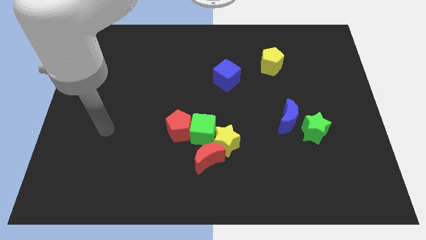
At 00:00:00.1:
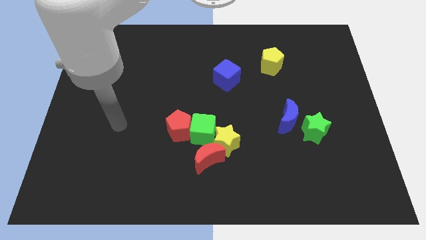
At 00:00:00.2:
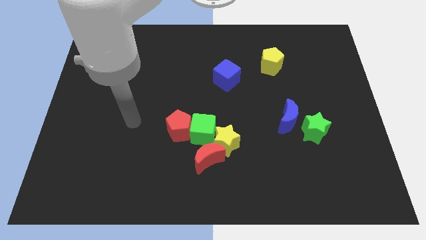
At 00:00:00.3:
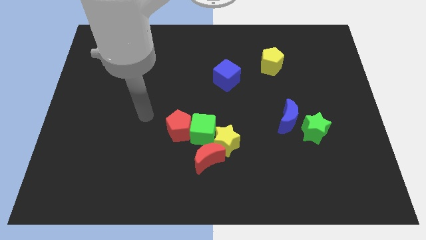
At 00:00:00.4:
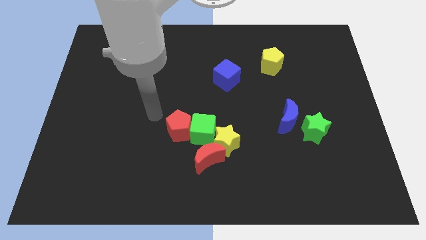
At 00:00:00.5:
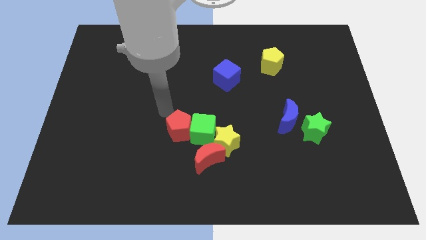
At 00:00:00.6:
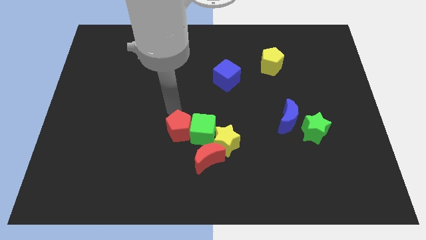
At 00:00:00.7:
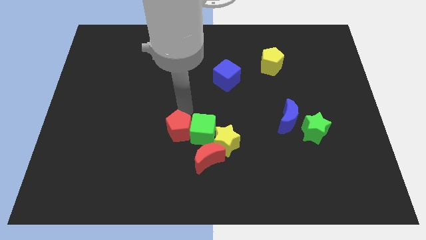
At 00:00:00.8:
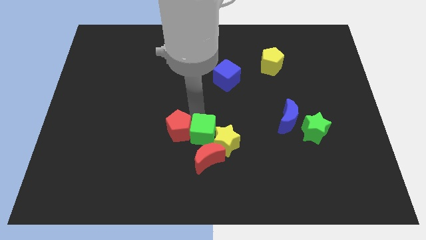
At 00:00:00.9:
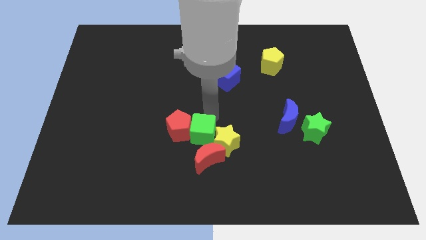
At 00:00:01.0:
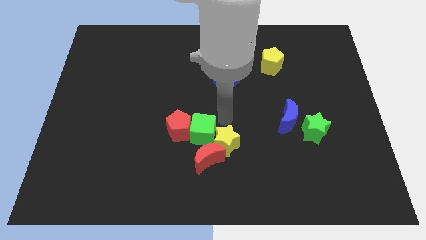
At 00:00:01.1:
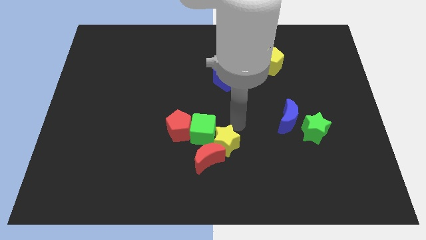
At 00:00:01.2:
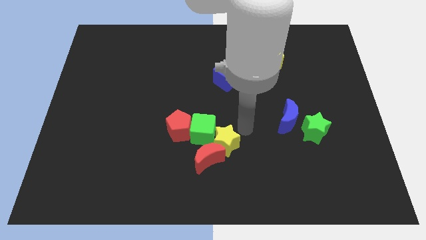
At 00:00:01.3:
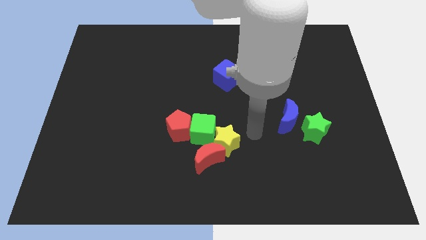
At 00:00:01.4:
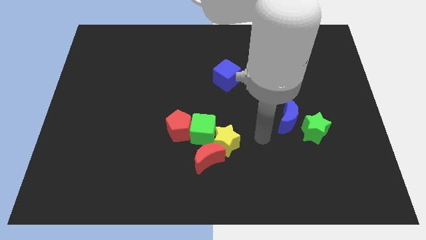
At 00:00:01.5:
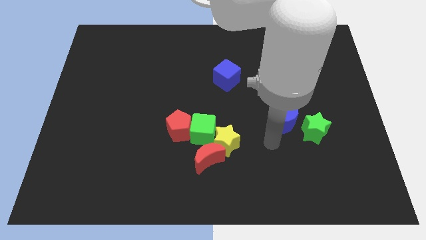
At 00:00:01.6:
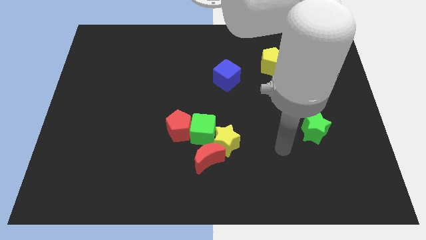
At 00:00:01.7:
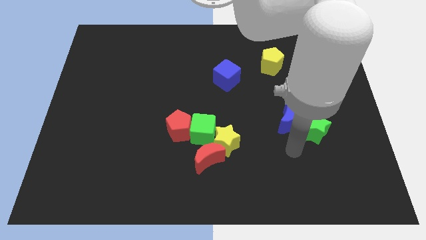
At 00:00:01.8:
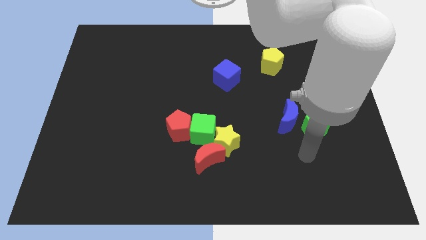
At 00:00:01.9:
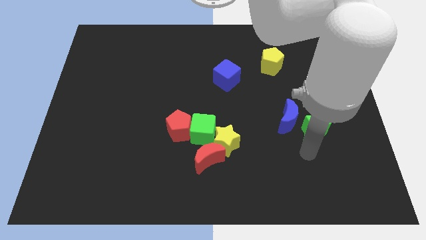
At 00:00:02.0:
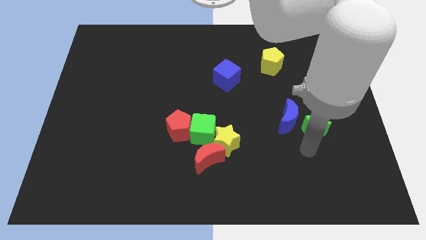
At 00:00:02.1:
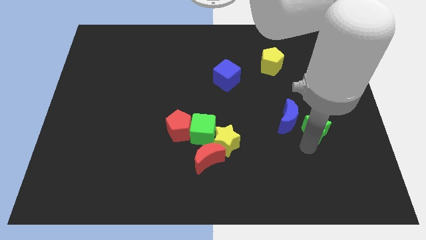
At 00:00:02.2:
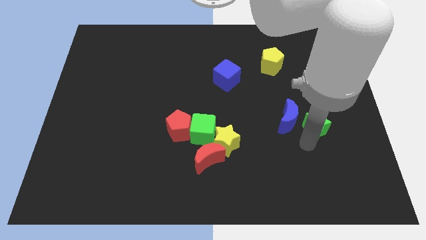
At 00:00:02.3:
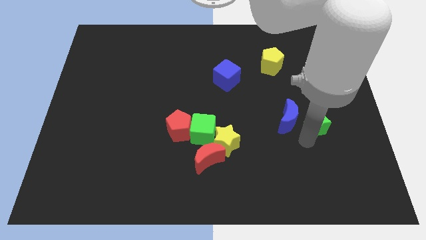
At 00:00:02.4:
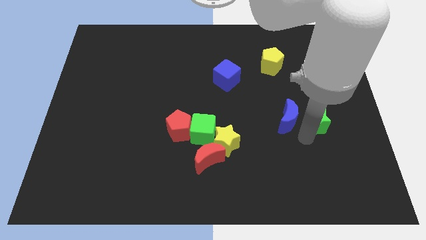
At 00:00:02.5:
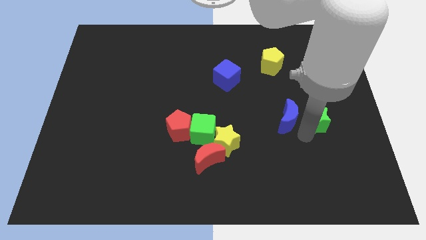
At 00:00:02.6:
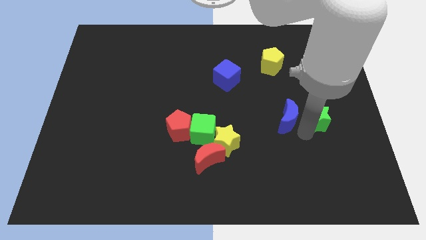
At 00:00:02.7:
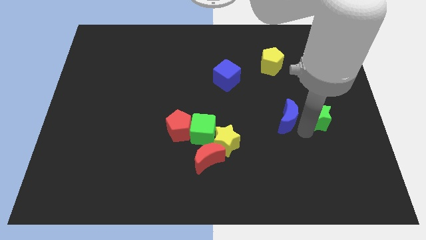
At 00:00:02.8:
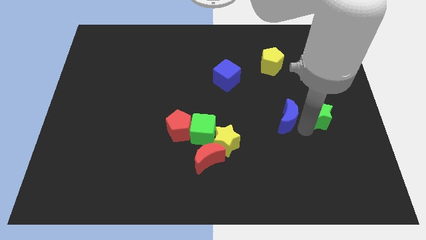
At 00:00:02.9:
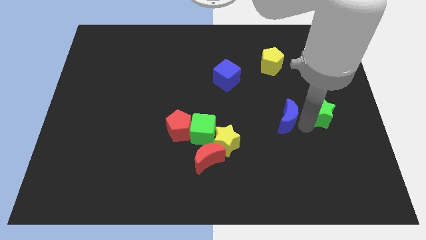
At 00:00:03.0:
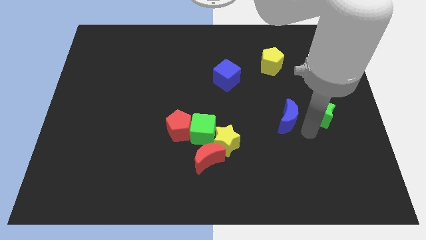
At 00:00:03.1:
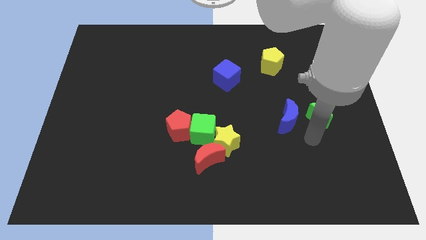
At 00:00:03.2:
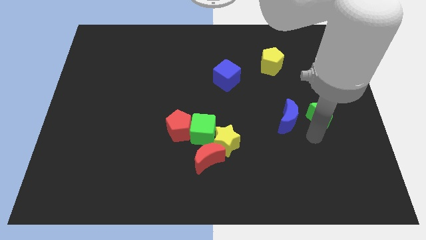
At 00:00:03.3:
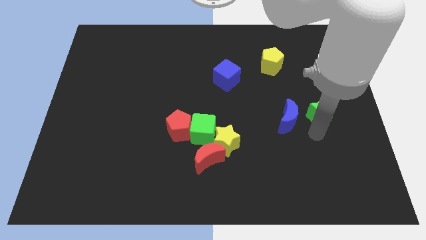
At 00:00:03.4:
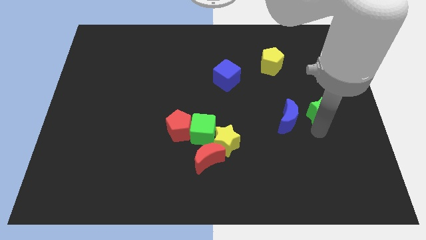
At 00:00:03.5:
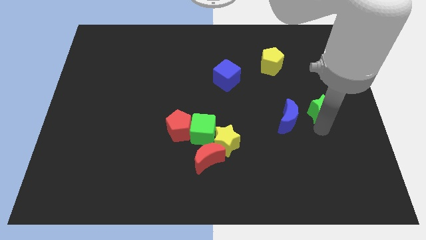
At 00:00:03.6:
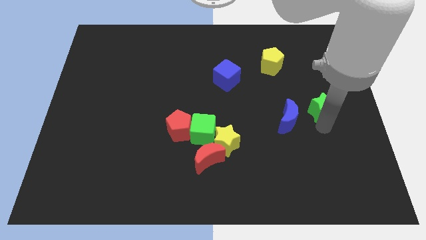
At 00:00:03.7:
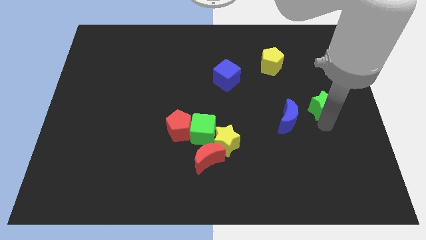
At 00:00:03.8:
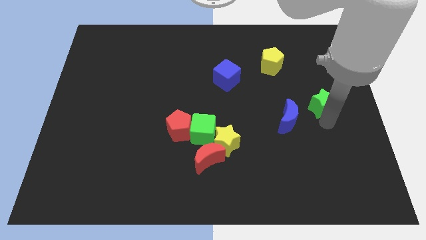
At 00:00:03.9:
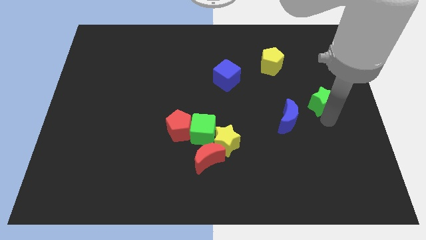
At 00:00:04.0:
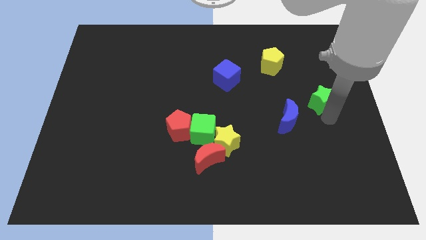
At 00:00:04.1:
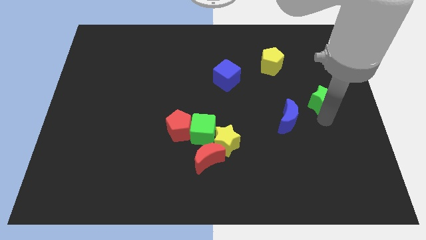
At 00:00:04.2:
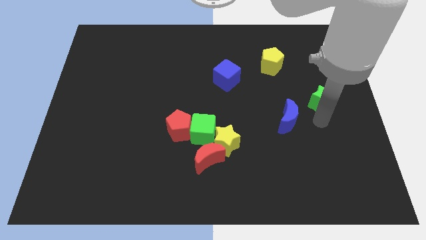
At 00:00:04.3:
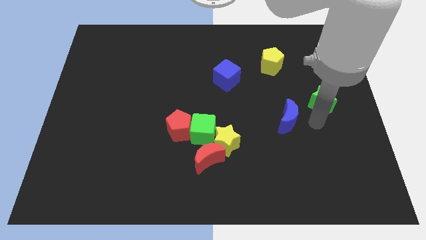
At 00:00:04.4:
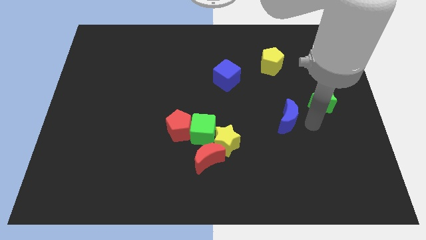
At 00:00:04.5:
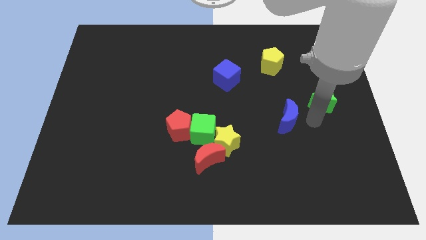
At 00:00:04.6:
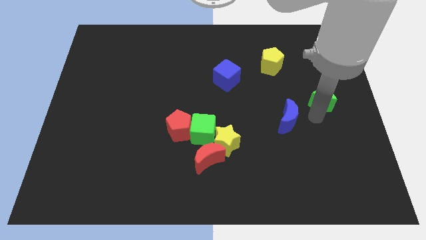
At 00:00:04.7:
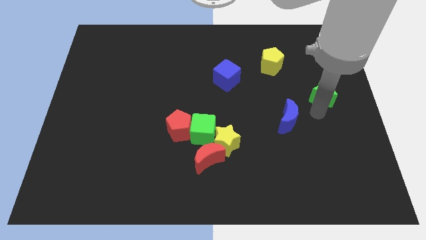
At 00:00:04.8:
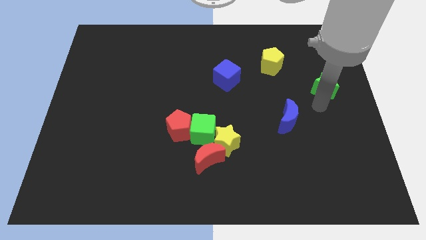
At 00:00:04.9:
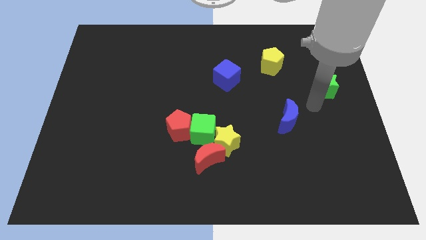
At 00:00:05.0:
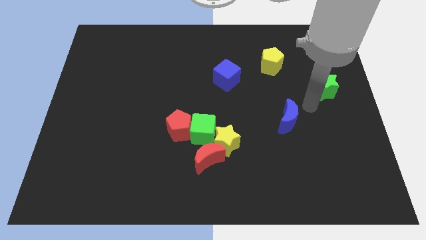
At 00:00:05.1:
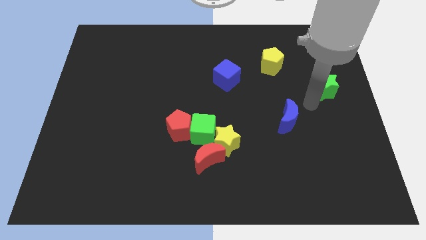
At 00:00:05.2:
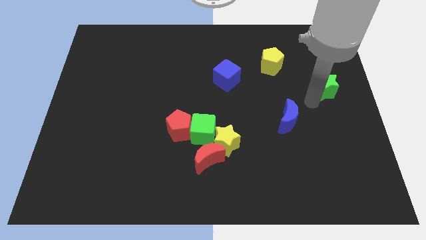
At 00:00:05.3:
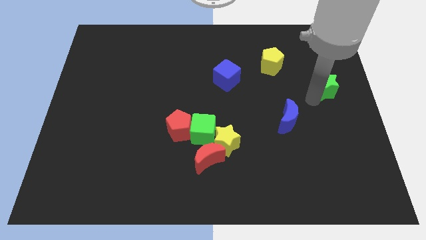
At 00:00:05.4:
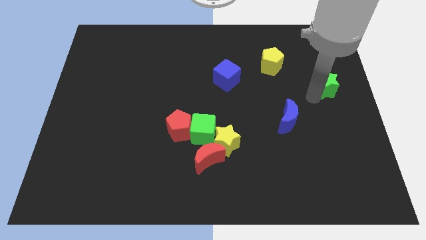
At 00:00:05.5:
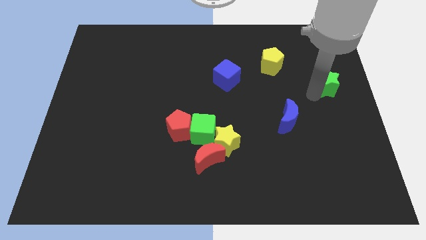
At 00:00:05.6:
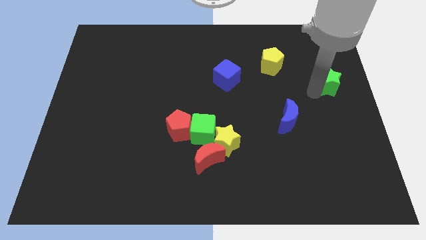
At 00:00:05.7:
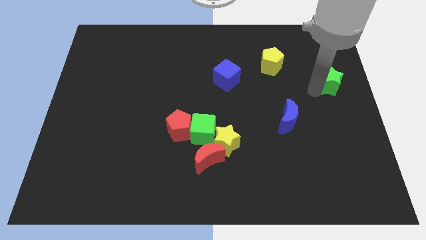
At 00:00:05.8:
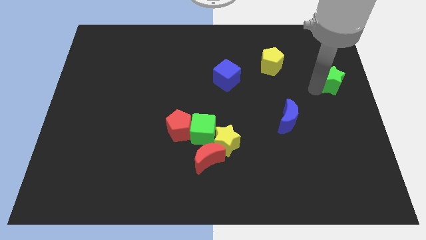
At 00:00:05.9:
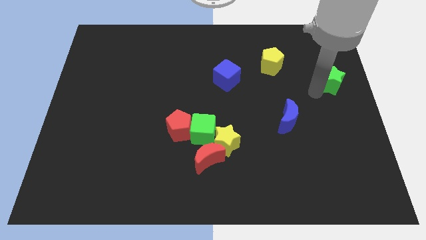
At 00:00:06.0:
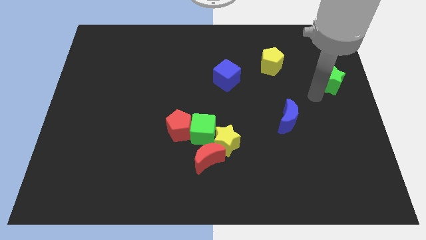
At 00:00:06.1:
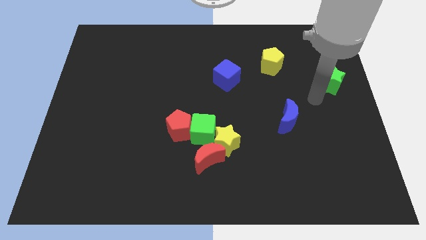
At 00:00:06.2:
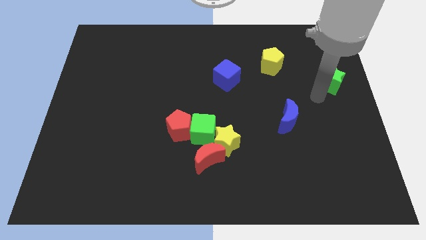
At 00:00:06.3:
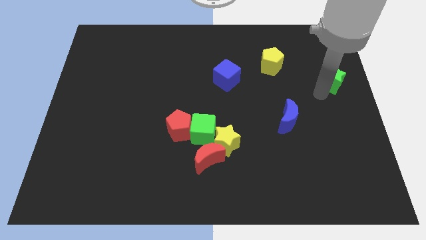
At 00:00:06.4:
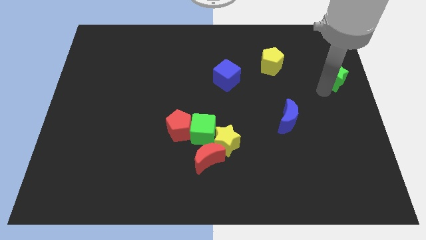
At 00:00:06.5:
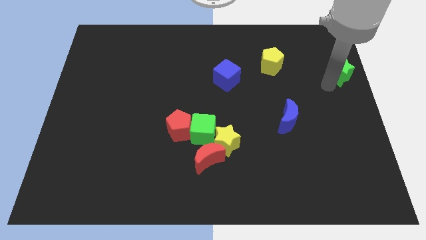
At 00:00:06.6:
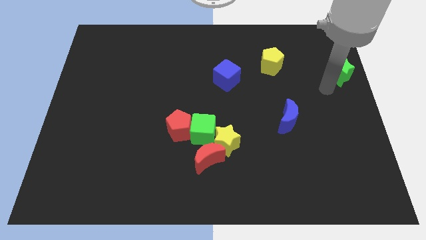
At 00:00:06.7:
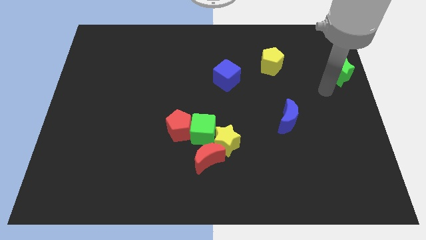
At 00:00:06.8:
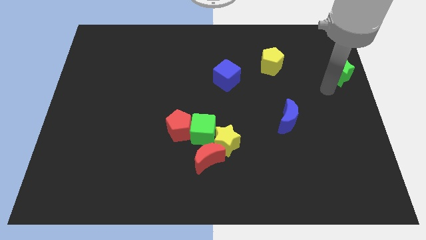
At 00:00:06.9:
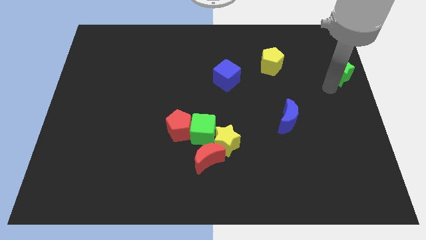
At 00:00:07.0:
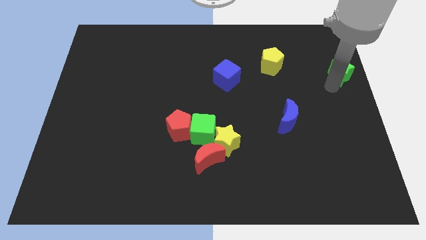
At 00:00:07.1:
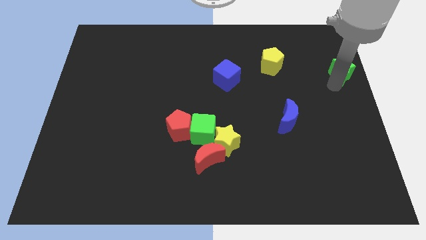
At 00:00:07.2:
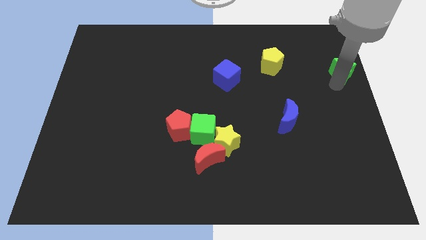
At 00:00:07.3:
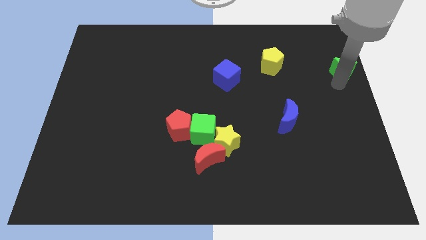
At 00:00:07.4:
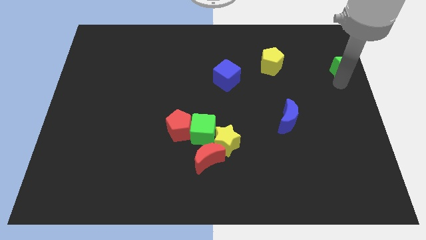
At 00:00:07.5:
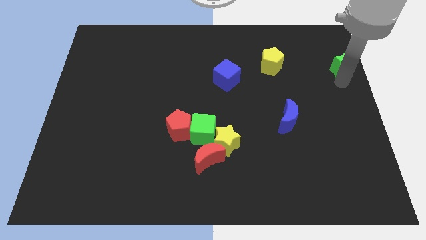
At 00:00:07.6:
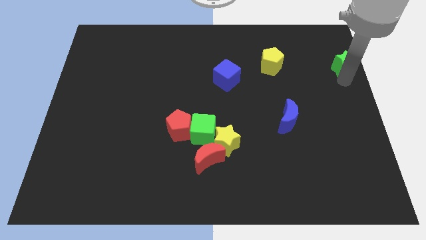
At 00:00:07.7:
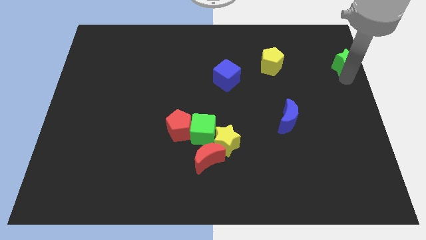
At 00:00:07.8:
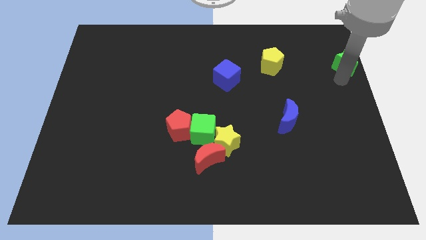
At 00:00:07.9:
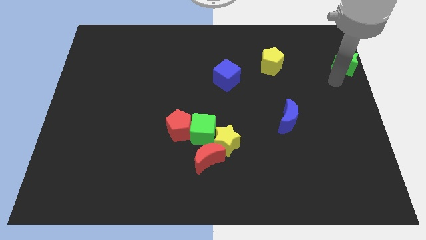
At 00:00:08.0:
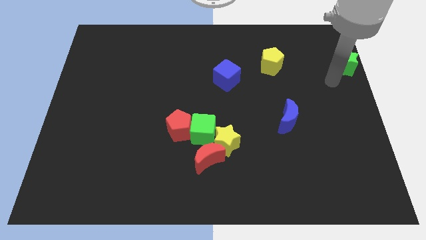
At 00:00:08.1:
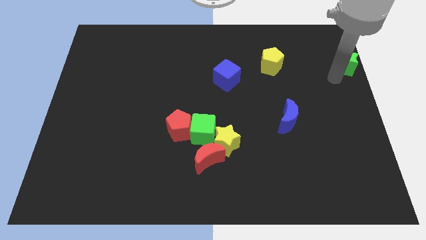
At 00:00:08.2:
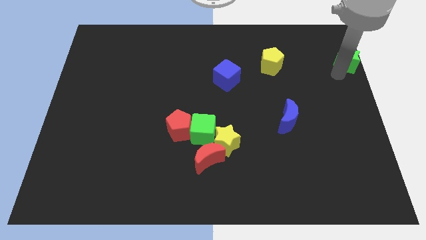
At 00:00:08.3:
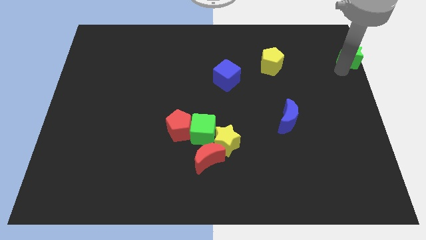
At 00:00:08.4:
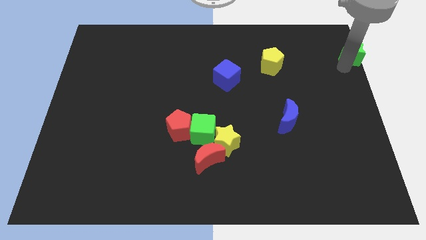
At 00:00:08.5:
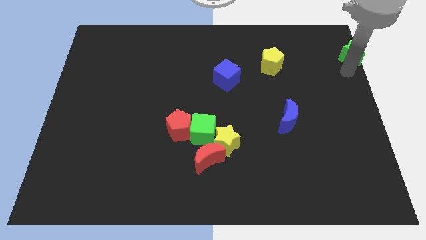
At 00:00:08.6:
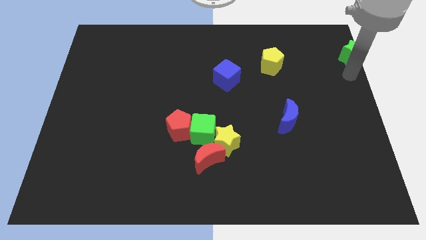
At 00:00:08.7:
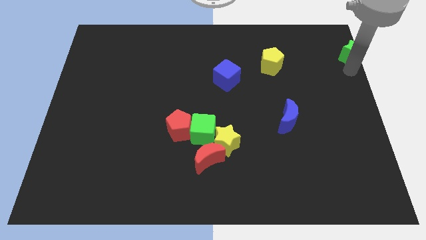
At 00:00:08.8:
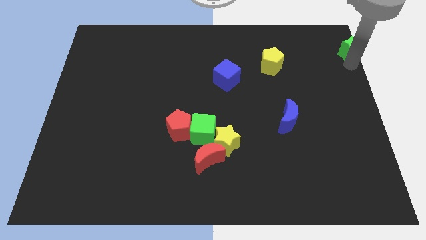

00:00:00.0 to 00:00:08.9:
push the green star to the top right corner
